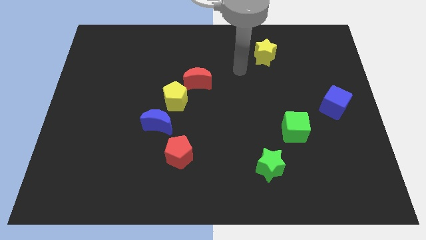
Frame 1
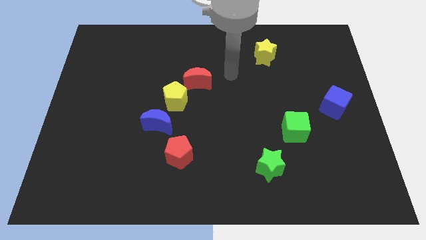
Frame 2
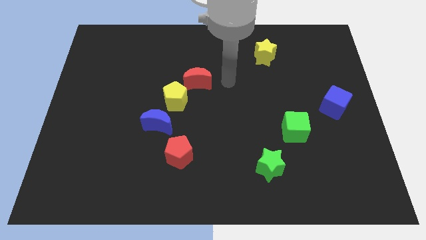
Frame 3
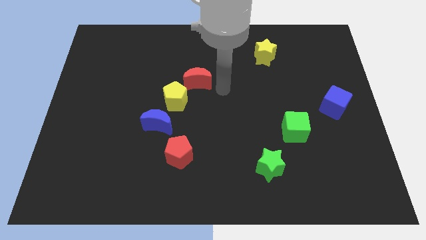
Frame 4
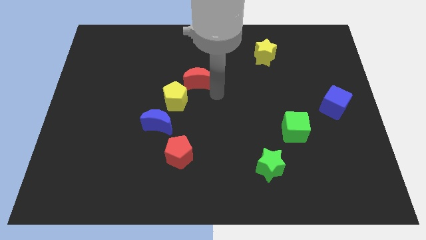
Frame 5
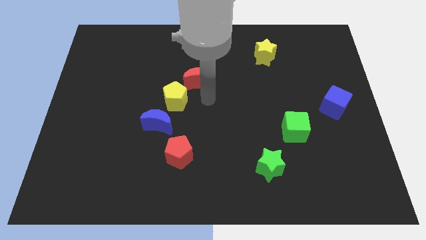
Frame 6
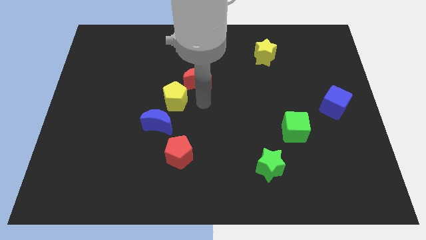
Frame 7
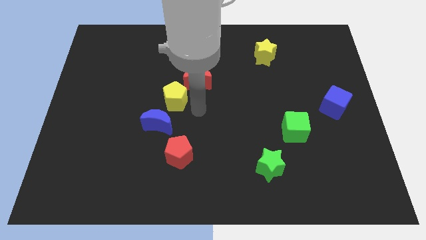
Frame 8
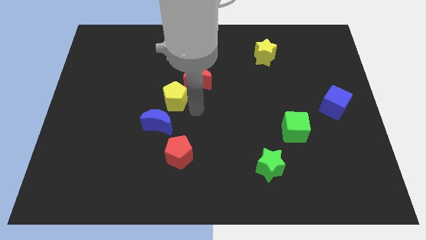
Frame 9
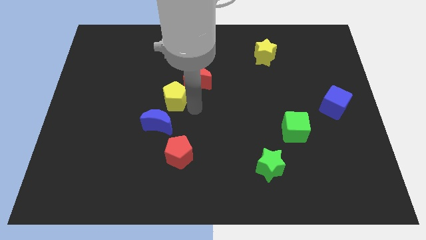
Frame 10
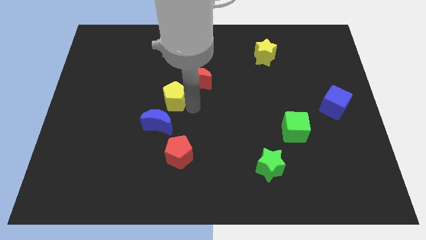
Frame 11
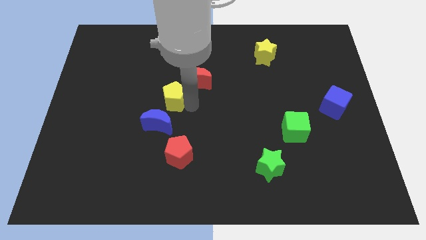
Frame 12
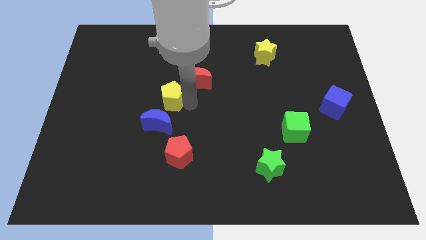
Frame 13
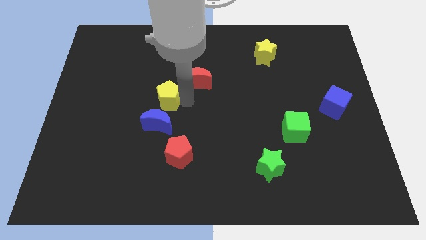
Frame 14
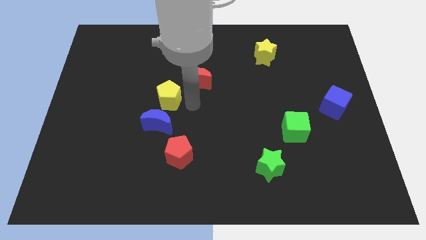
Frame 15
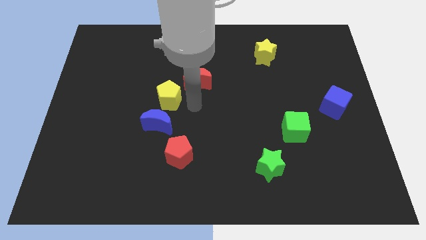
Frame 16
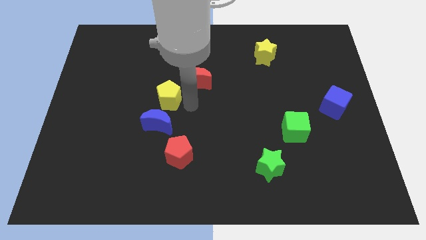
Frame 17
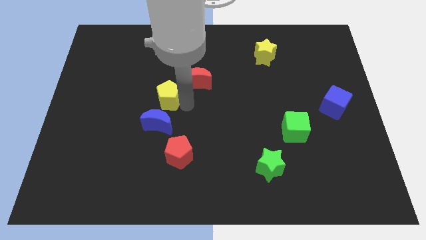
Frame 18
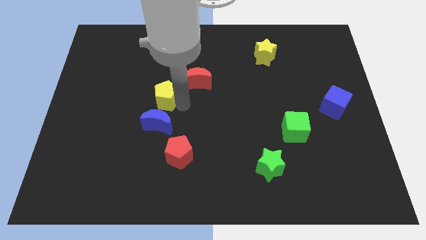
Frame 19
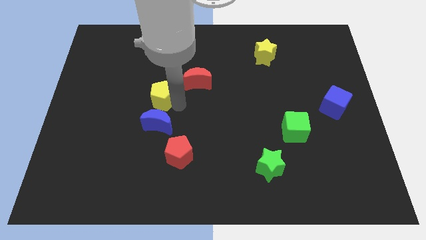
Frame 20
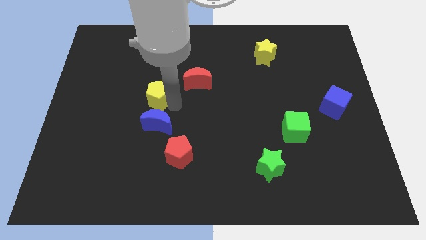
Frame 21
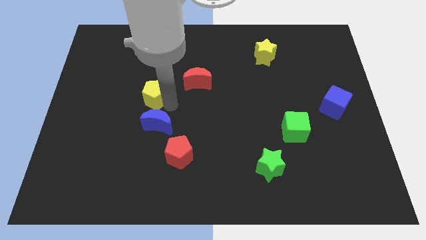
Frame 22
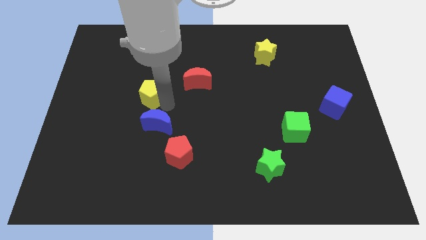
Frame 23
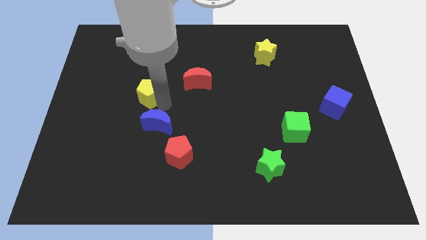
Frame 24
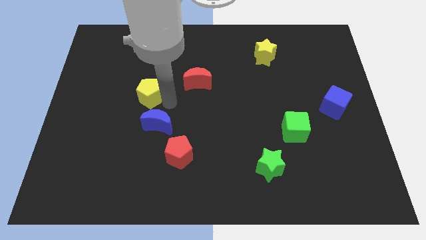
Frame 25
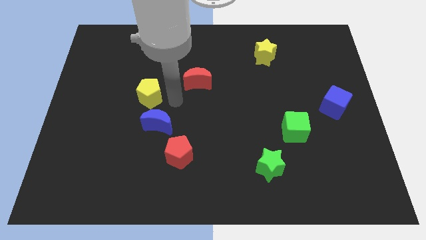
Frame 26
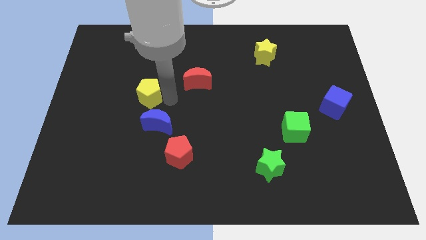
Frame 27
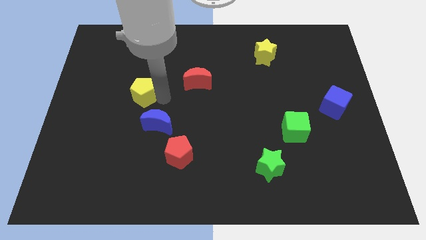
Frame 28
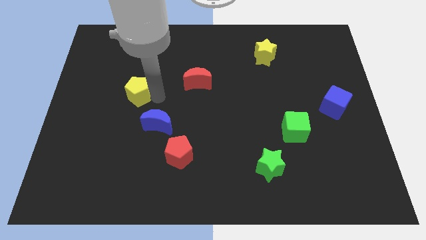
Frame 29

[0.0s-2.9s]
move the yellow pentagon away from the blue moon and red moon

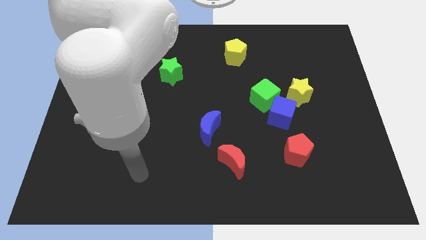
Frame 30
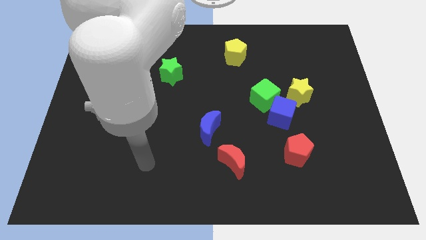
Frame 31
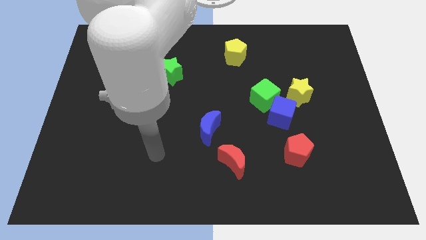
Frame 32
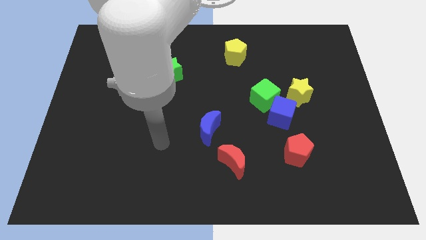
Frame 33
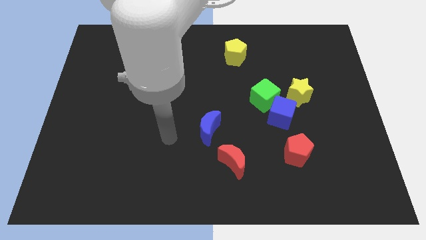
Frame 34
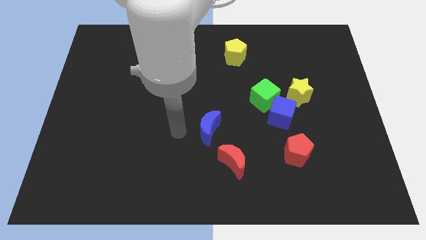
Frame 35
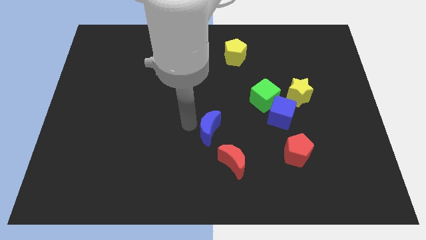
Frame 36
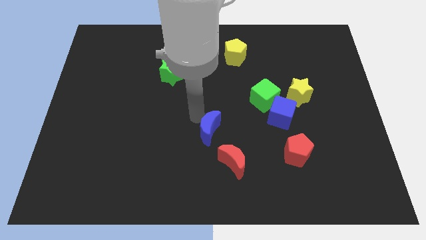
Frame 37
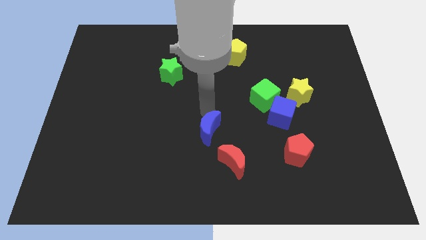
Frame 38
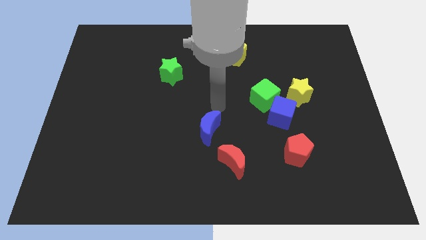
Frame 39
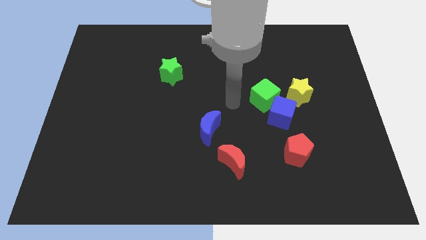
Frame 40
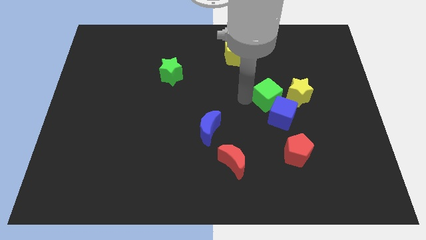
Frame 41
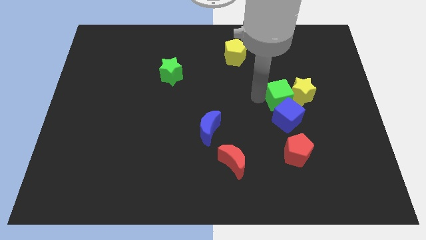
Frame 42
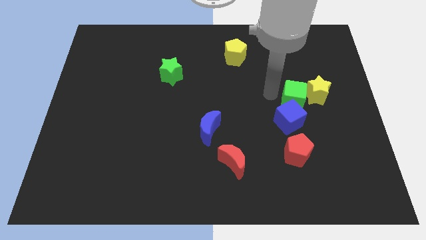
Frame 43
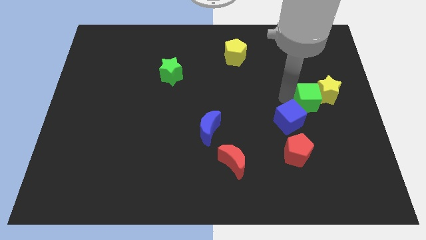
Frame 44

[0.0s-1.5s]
pull the blue cube apart from the green cube and yellow star

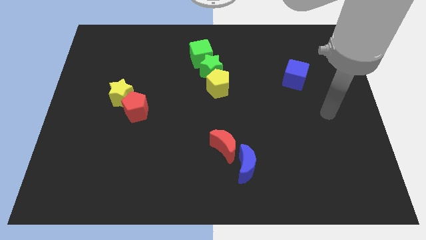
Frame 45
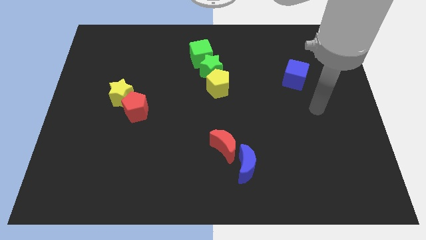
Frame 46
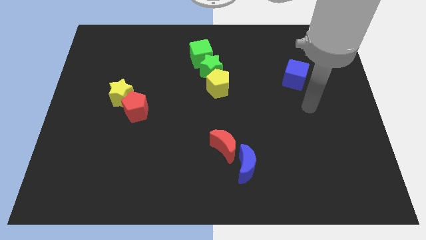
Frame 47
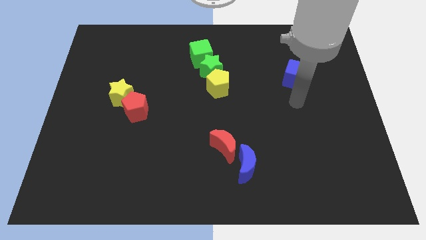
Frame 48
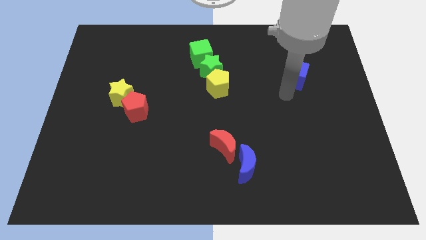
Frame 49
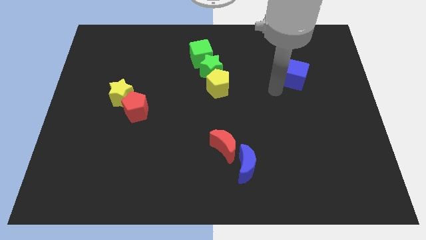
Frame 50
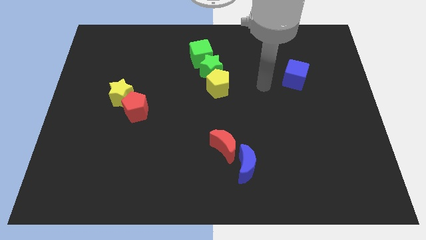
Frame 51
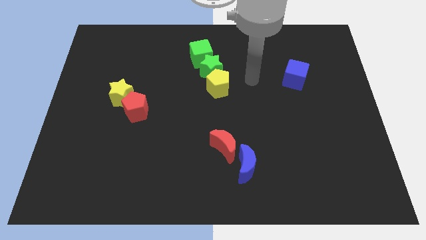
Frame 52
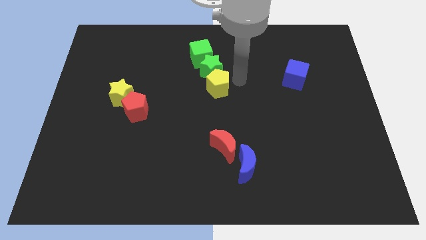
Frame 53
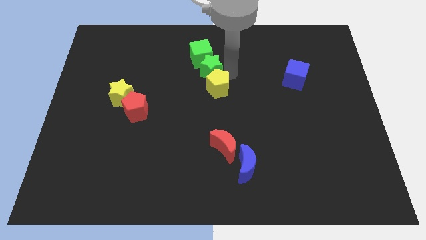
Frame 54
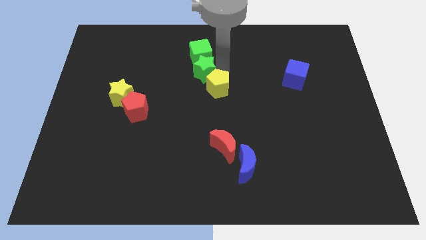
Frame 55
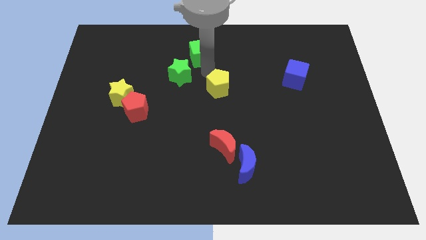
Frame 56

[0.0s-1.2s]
pull the yellow pentagon apart from the green star

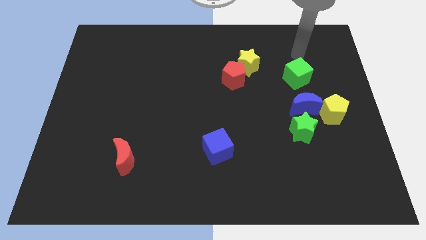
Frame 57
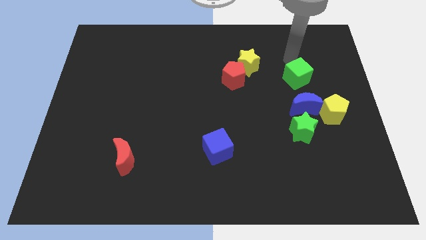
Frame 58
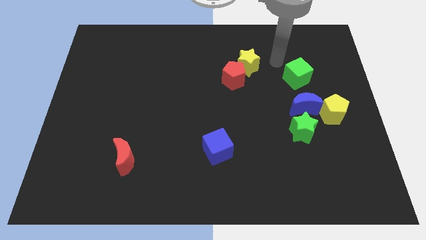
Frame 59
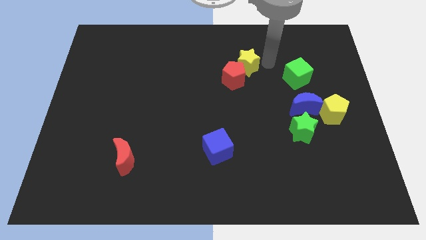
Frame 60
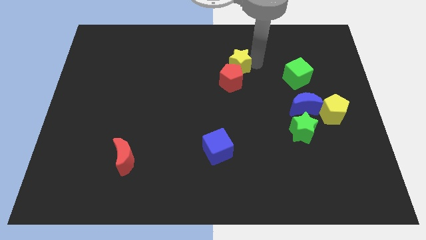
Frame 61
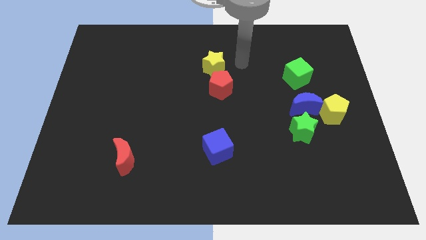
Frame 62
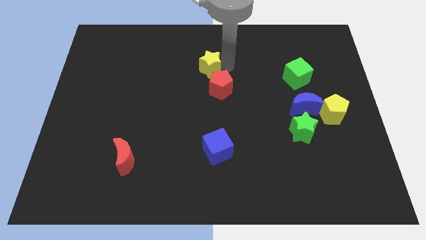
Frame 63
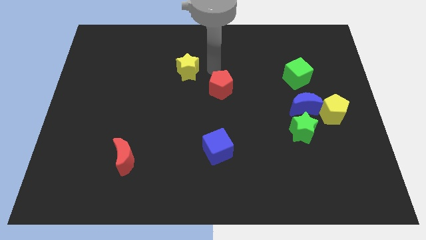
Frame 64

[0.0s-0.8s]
pull the red pentagon apart from the yellow star

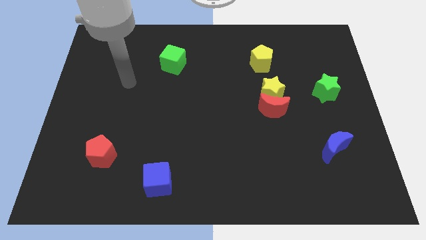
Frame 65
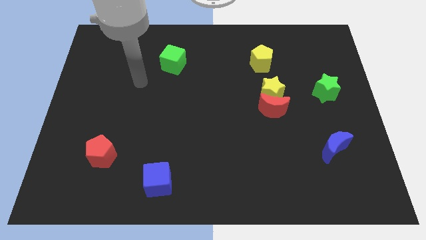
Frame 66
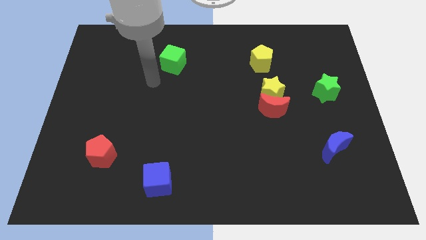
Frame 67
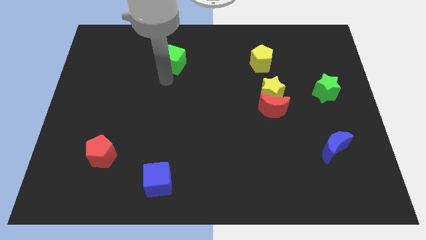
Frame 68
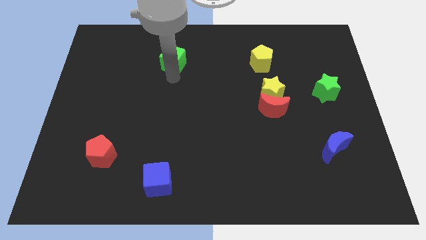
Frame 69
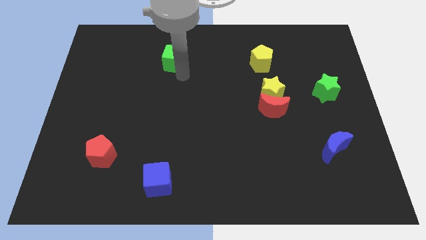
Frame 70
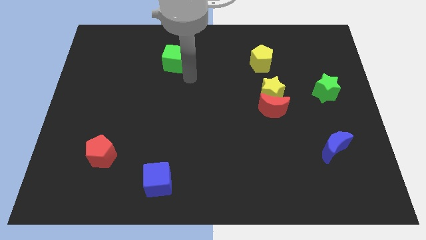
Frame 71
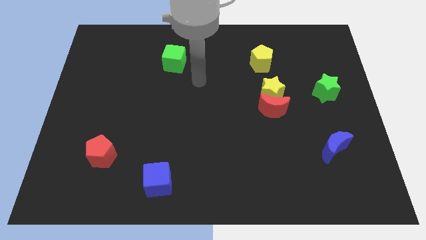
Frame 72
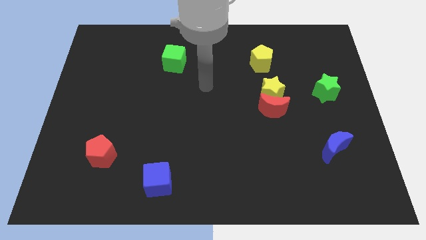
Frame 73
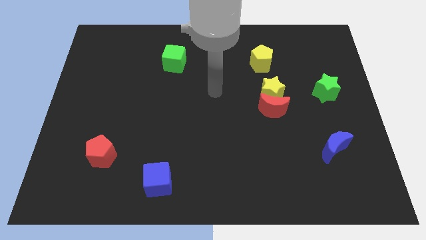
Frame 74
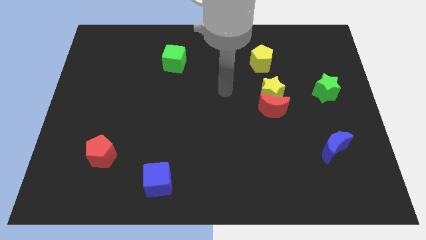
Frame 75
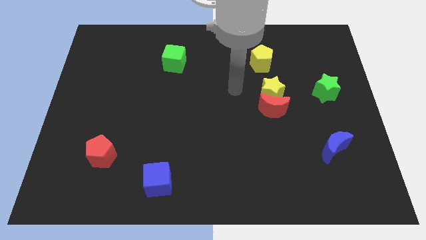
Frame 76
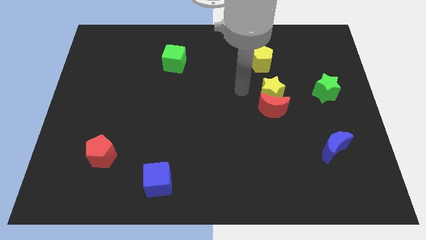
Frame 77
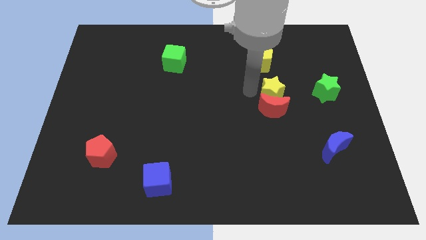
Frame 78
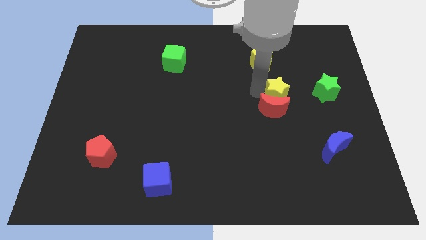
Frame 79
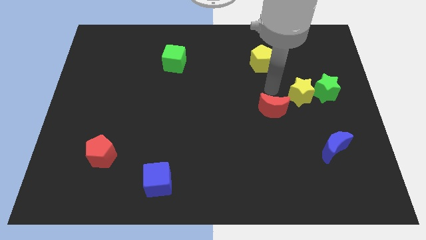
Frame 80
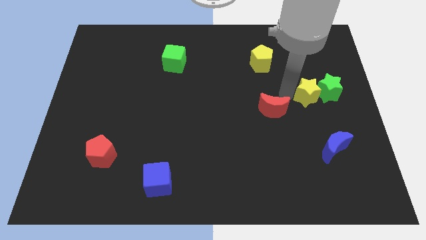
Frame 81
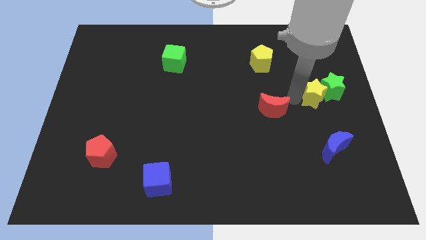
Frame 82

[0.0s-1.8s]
move the red moon away from the yellow star

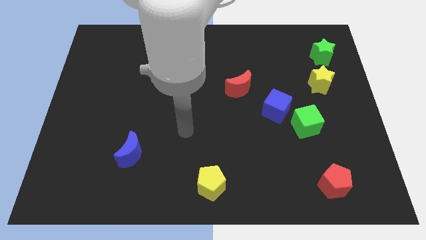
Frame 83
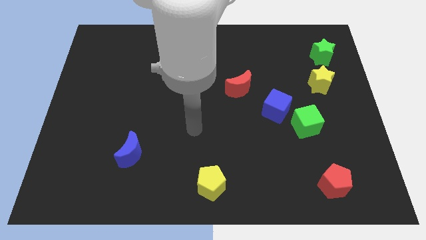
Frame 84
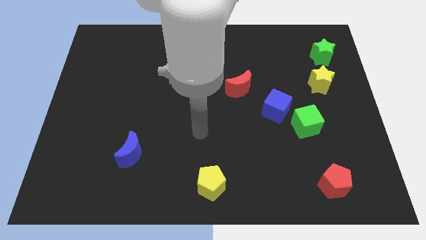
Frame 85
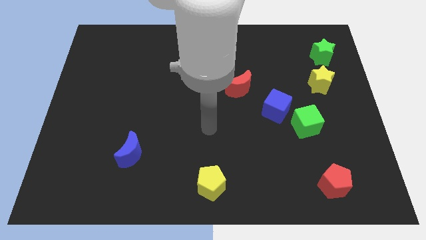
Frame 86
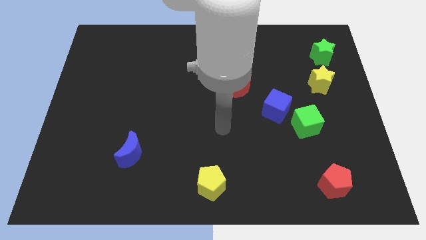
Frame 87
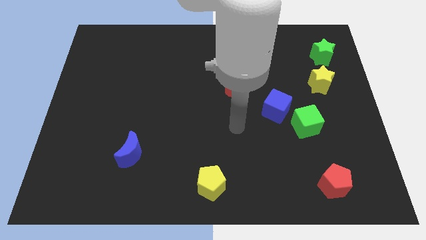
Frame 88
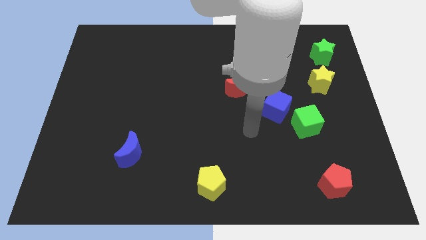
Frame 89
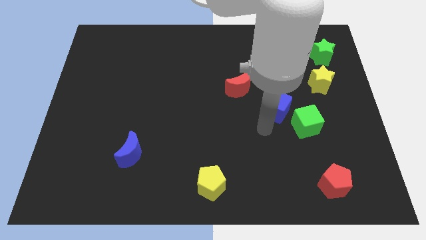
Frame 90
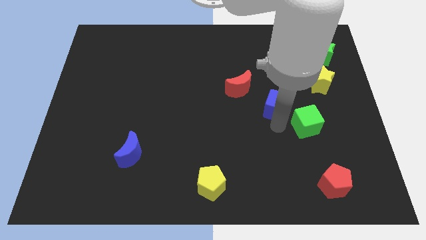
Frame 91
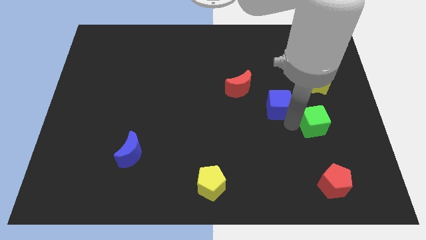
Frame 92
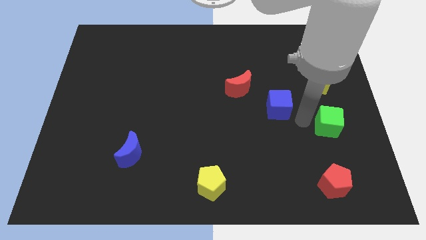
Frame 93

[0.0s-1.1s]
separate the blue cube from the green cube
